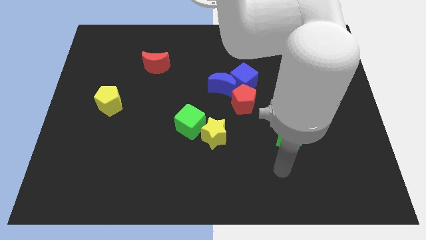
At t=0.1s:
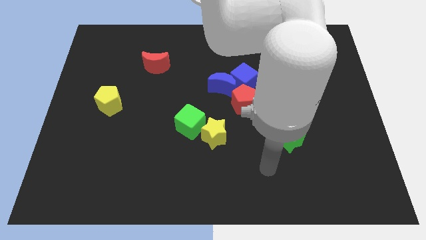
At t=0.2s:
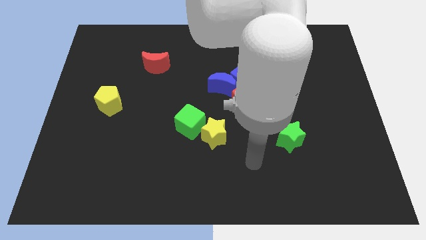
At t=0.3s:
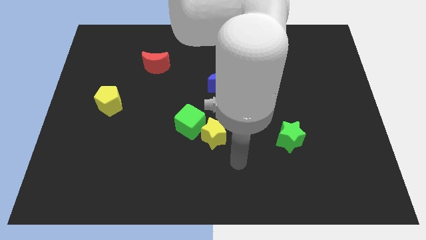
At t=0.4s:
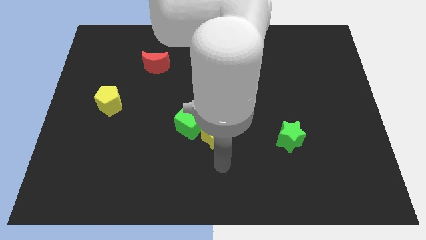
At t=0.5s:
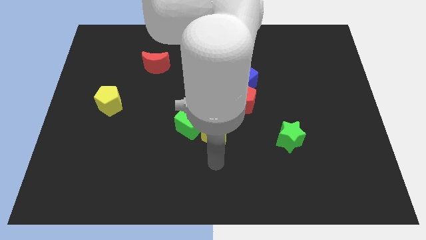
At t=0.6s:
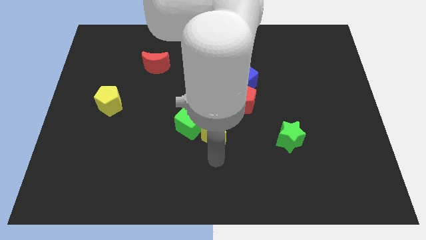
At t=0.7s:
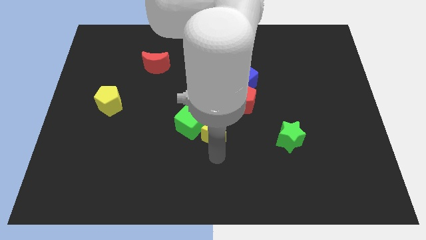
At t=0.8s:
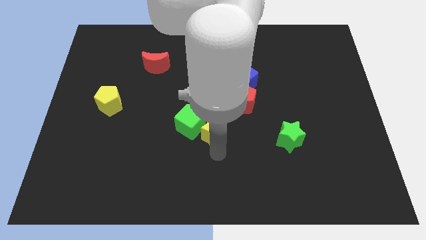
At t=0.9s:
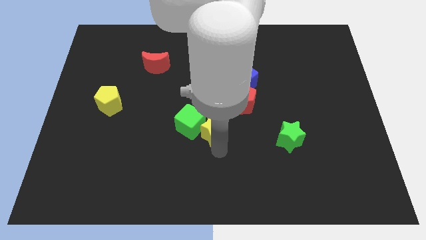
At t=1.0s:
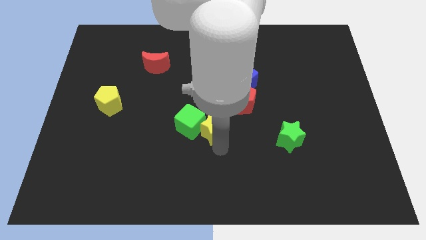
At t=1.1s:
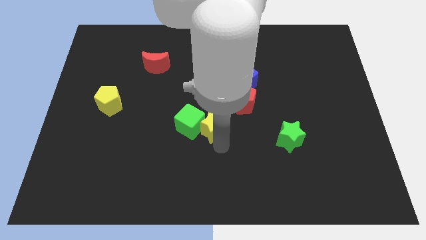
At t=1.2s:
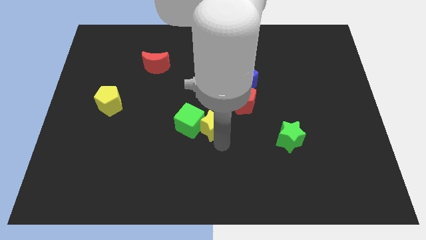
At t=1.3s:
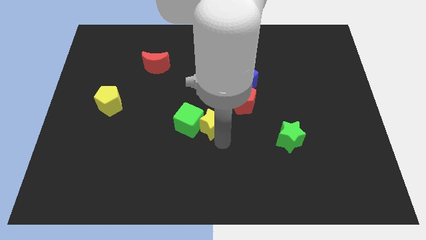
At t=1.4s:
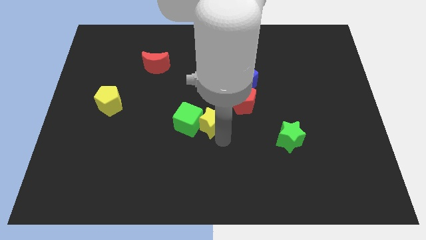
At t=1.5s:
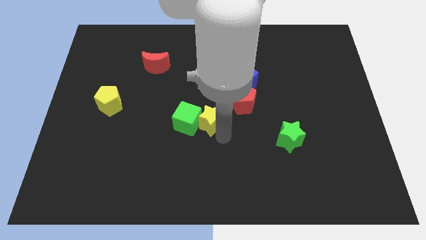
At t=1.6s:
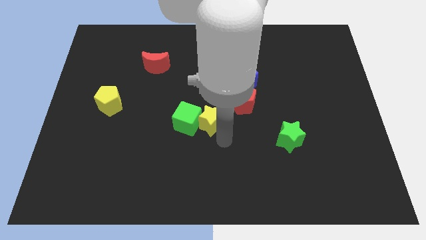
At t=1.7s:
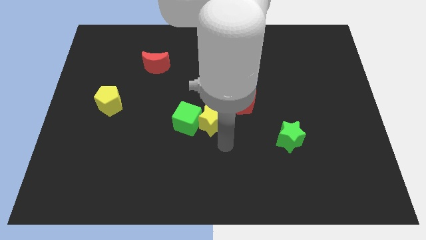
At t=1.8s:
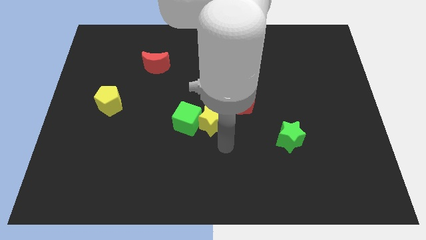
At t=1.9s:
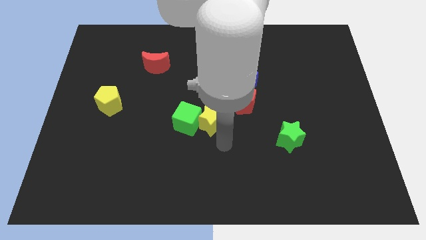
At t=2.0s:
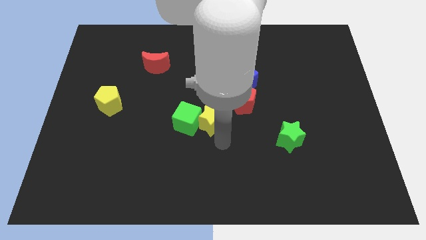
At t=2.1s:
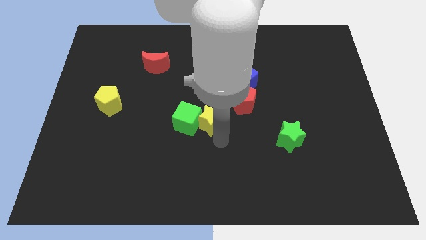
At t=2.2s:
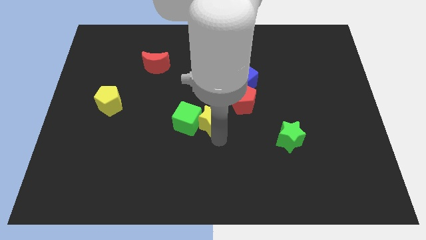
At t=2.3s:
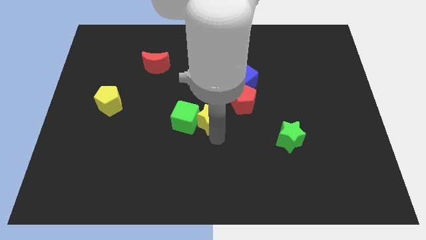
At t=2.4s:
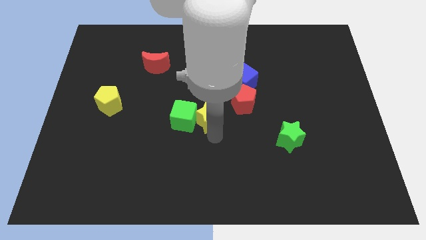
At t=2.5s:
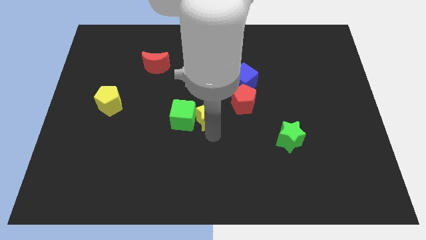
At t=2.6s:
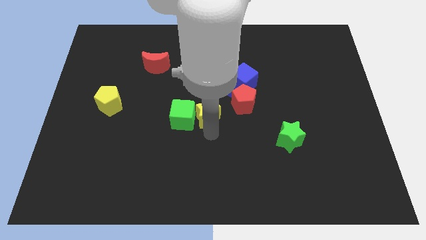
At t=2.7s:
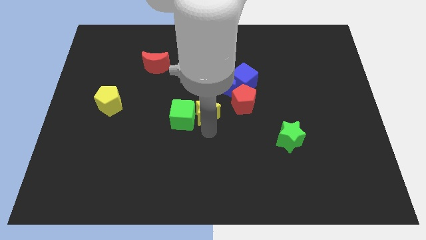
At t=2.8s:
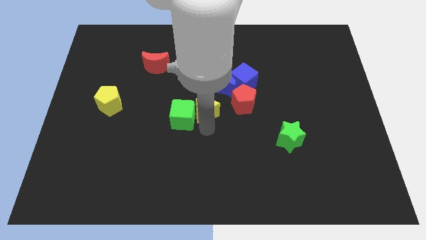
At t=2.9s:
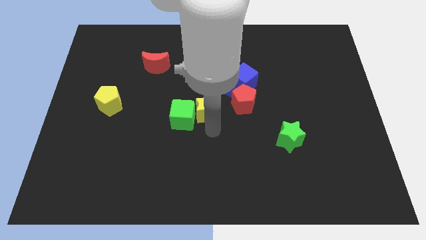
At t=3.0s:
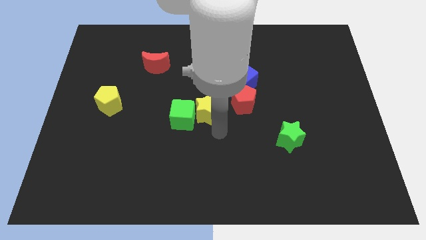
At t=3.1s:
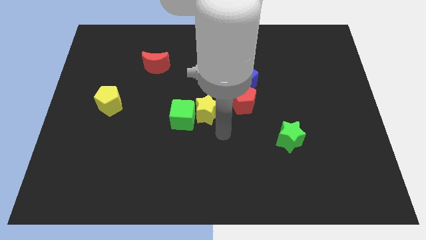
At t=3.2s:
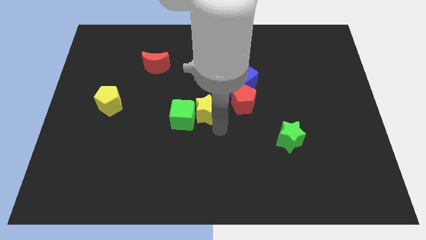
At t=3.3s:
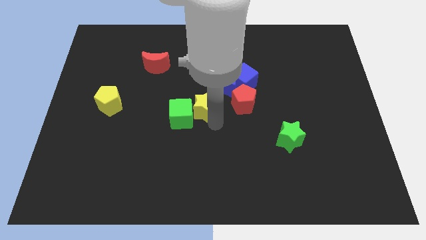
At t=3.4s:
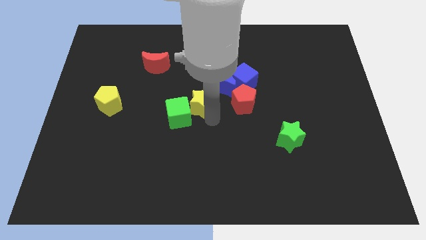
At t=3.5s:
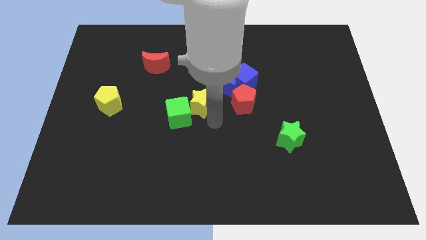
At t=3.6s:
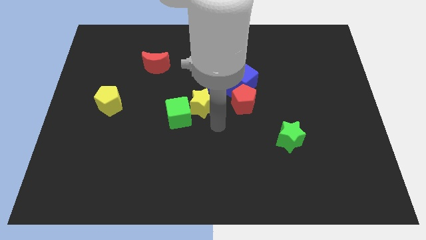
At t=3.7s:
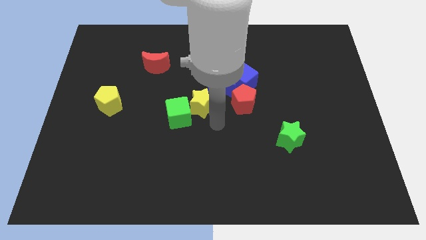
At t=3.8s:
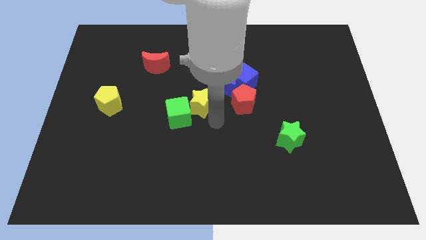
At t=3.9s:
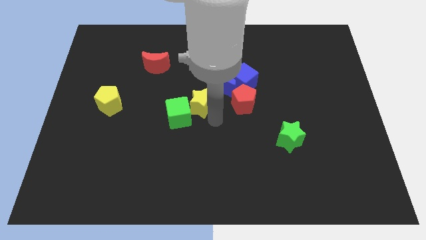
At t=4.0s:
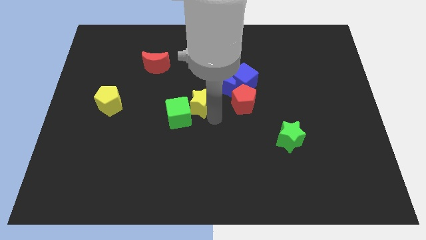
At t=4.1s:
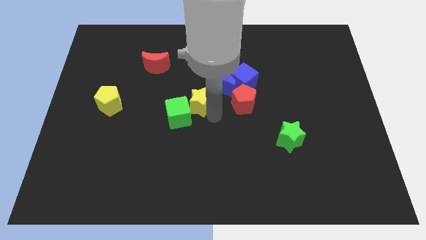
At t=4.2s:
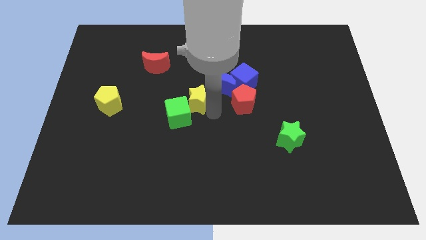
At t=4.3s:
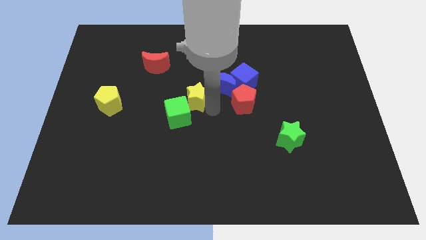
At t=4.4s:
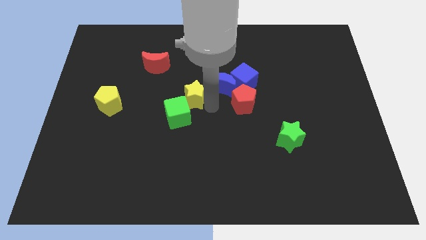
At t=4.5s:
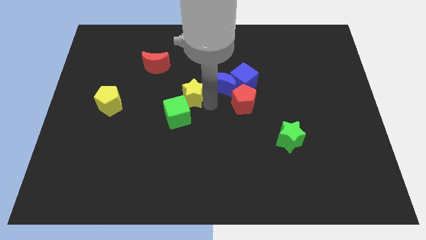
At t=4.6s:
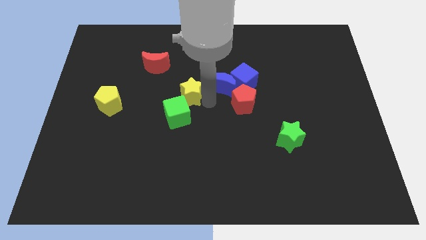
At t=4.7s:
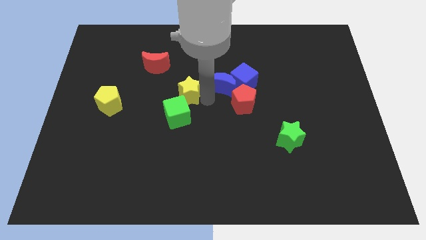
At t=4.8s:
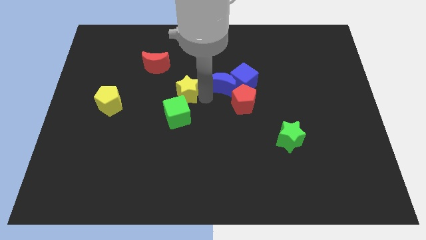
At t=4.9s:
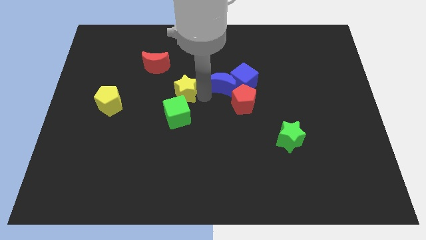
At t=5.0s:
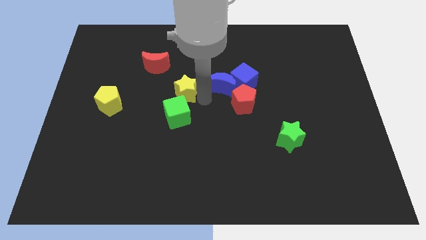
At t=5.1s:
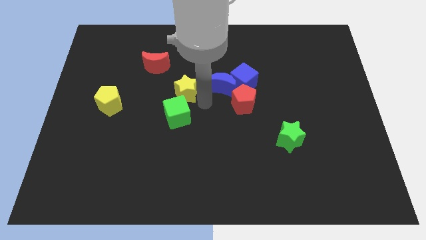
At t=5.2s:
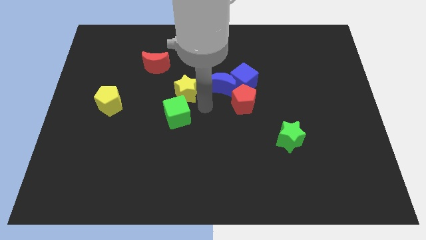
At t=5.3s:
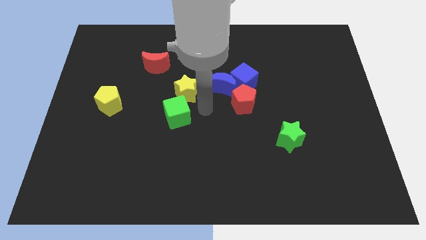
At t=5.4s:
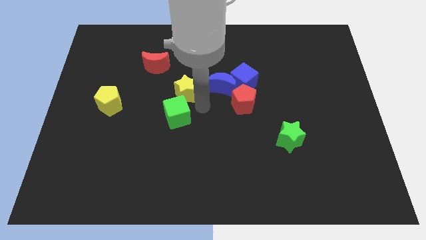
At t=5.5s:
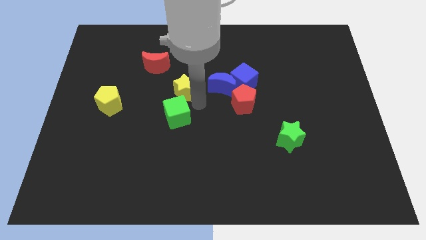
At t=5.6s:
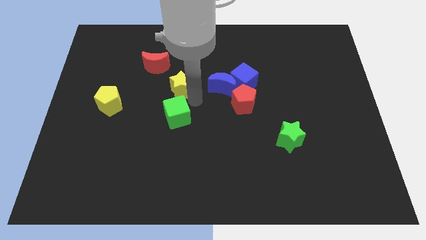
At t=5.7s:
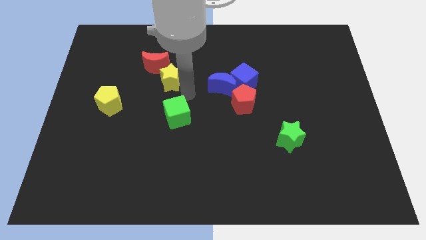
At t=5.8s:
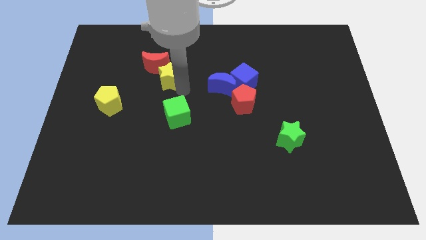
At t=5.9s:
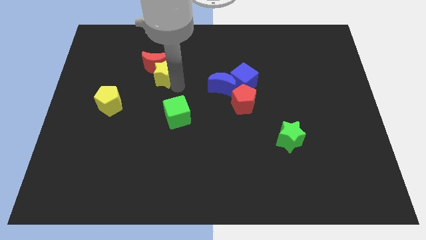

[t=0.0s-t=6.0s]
push the yellow star to the red moon

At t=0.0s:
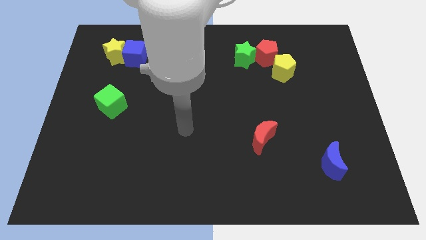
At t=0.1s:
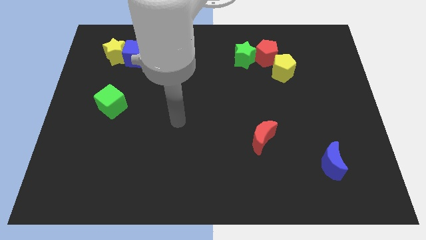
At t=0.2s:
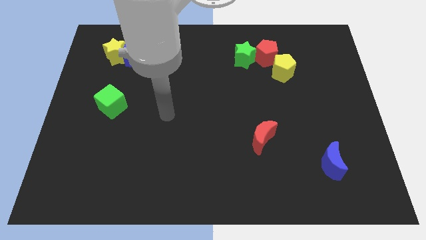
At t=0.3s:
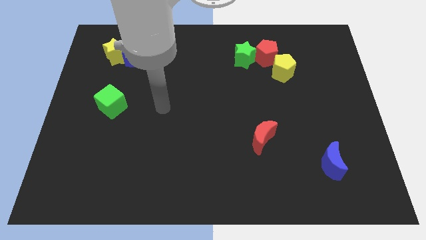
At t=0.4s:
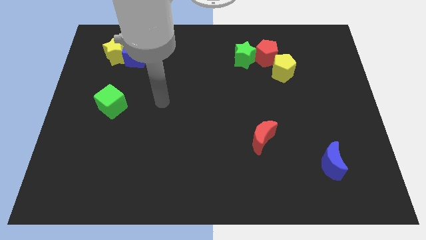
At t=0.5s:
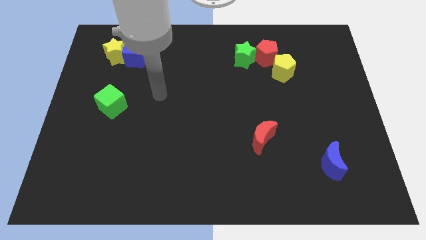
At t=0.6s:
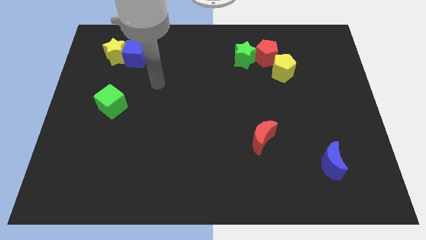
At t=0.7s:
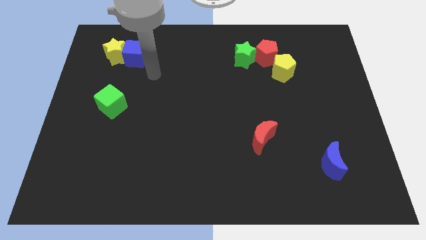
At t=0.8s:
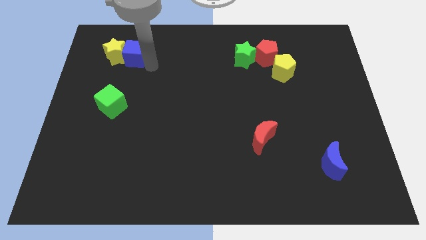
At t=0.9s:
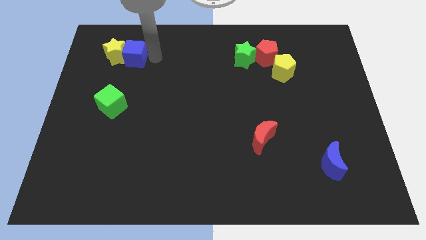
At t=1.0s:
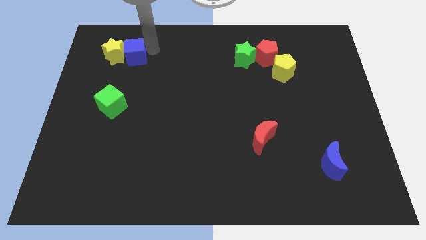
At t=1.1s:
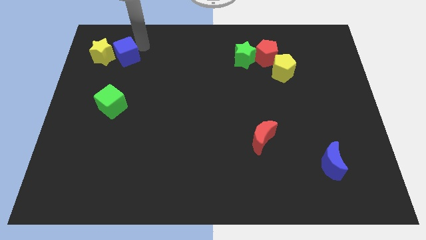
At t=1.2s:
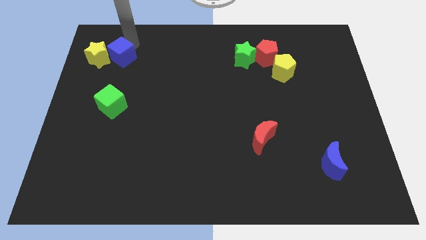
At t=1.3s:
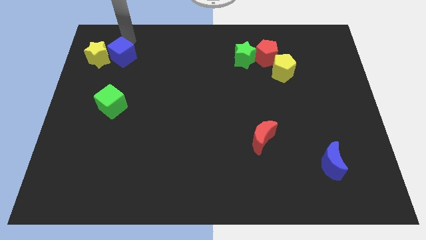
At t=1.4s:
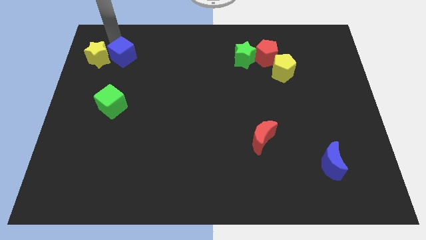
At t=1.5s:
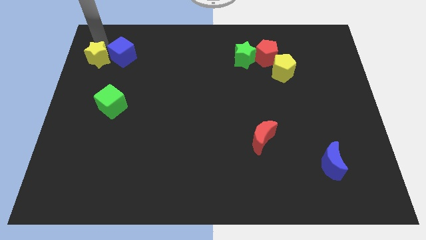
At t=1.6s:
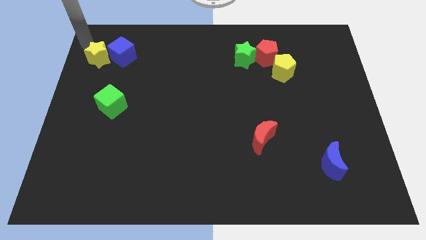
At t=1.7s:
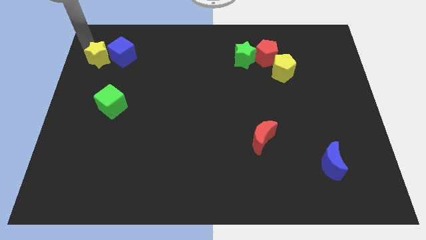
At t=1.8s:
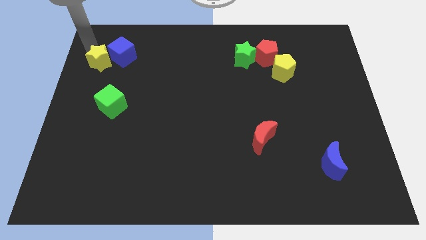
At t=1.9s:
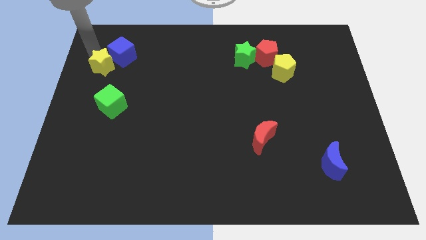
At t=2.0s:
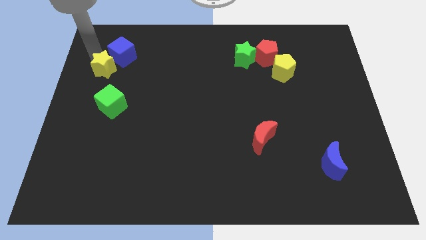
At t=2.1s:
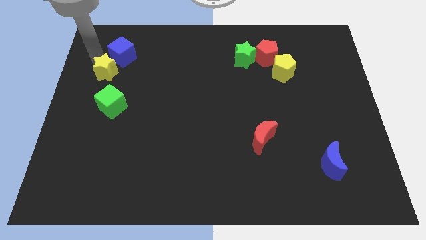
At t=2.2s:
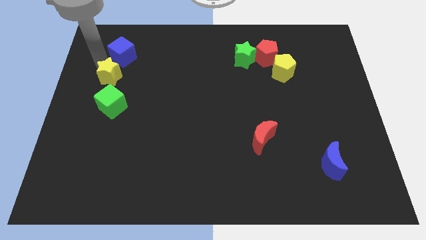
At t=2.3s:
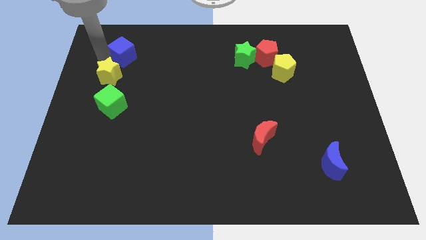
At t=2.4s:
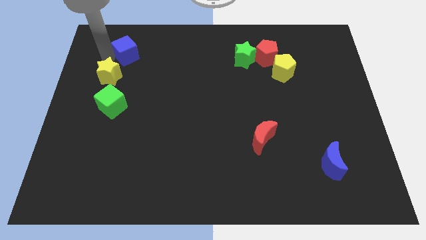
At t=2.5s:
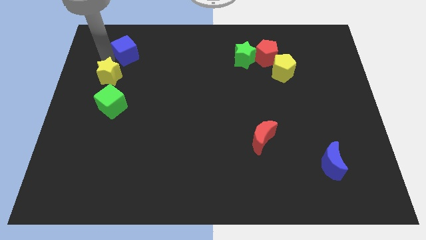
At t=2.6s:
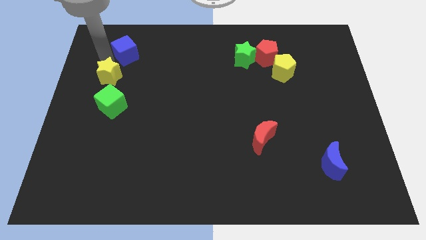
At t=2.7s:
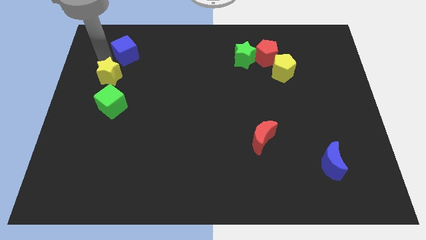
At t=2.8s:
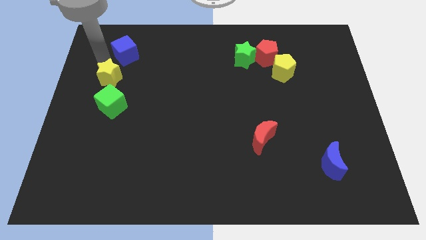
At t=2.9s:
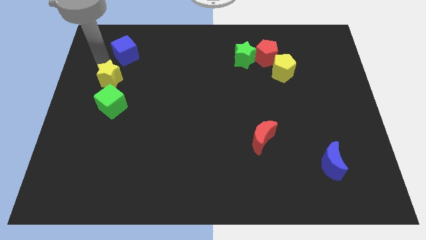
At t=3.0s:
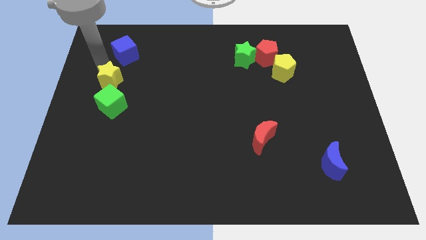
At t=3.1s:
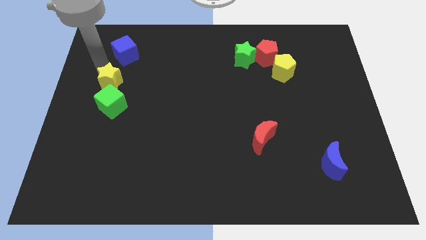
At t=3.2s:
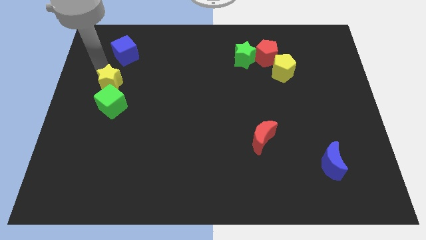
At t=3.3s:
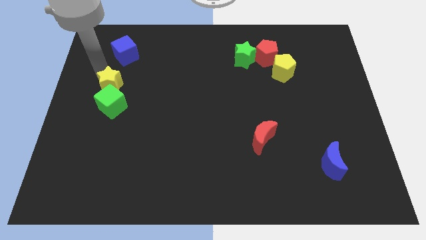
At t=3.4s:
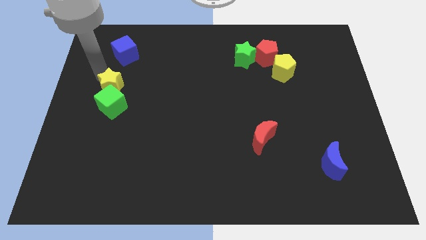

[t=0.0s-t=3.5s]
move the yellow star close to the green cube
